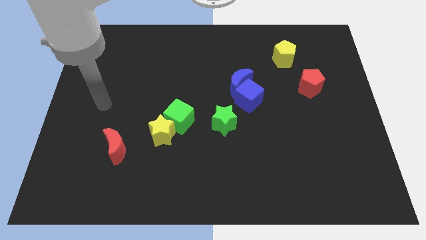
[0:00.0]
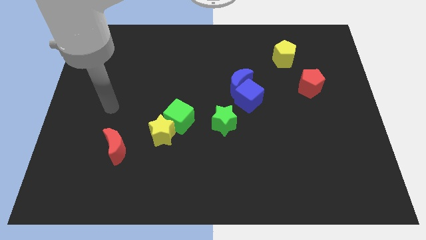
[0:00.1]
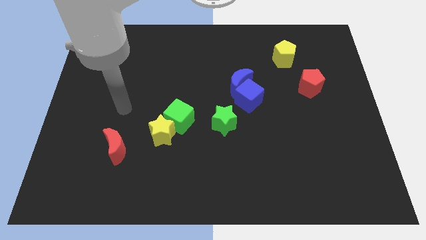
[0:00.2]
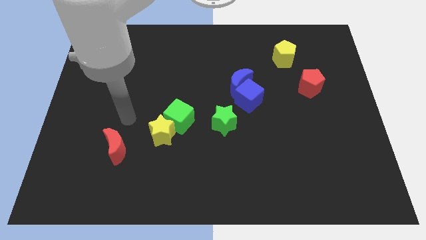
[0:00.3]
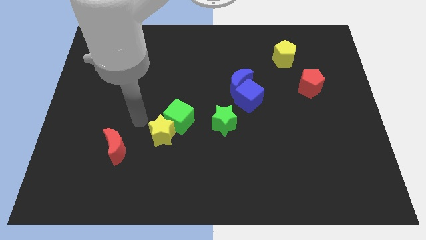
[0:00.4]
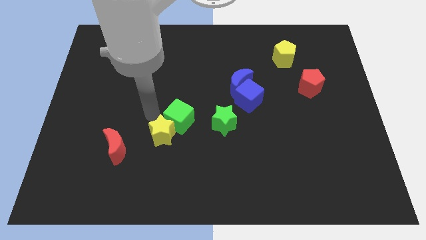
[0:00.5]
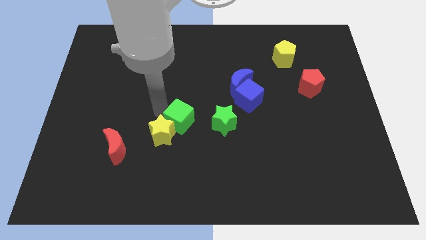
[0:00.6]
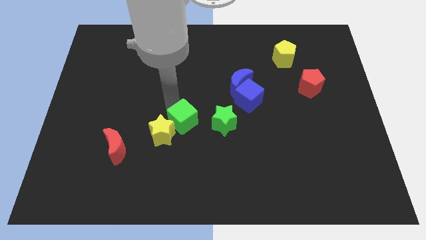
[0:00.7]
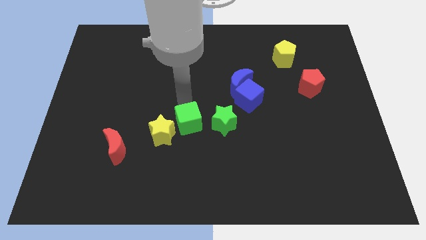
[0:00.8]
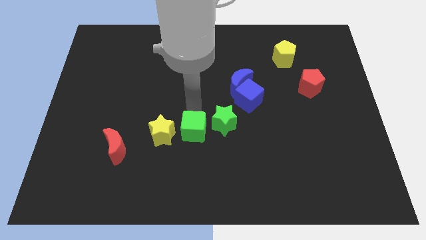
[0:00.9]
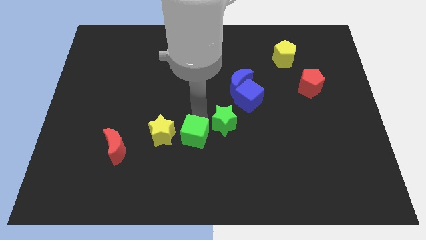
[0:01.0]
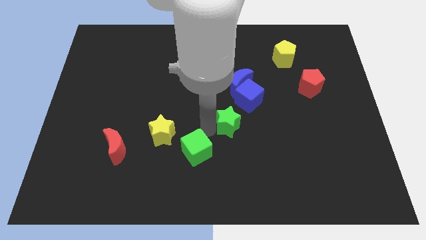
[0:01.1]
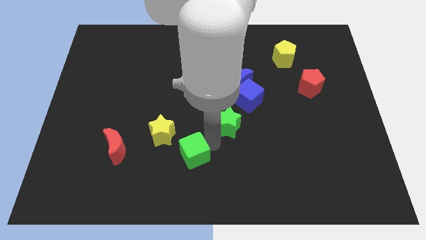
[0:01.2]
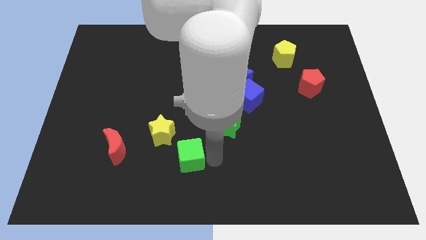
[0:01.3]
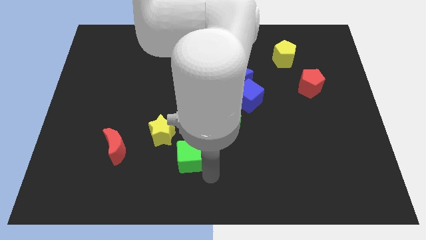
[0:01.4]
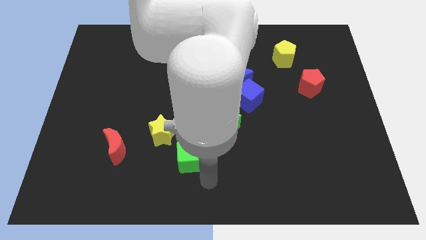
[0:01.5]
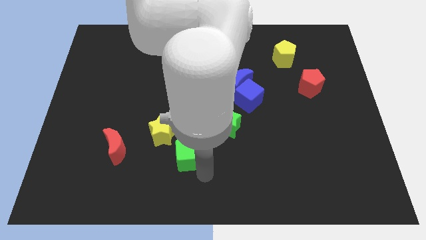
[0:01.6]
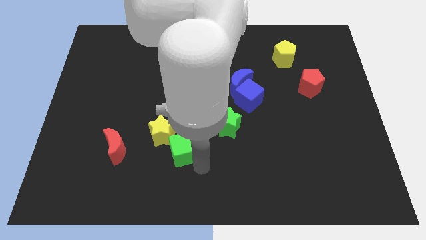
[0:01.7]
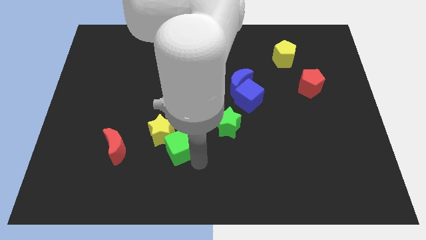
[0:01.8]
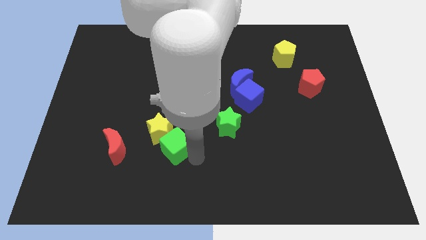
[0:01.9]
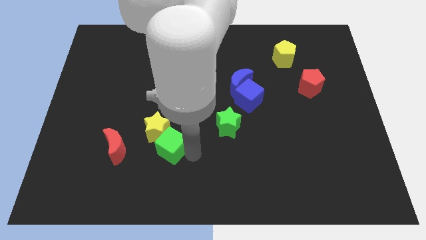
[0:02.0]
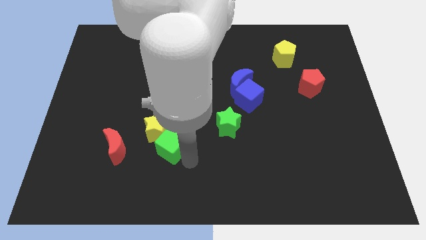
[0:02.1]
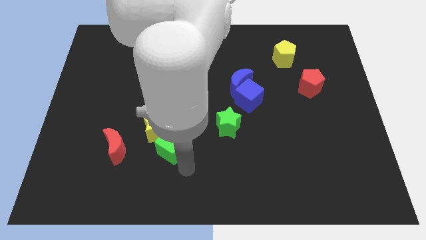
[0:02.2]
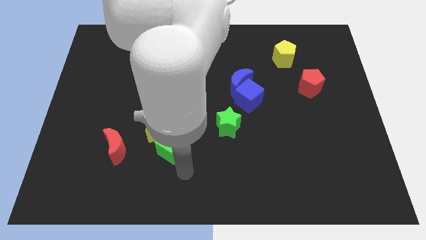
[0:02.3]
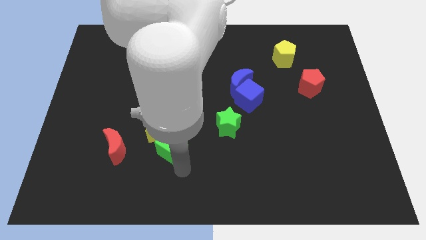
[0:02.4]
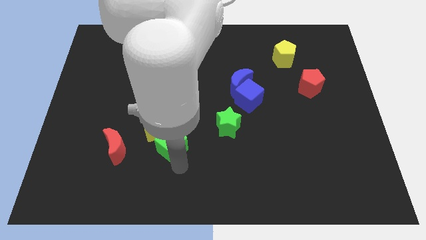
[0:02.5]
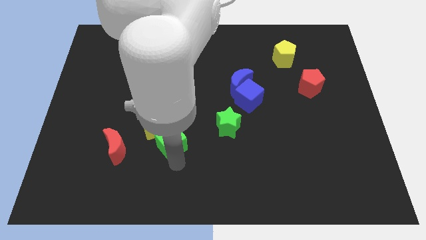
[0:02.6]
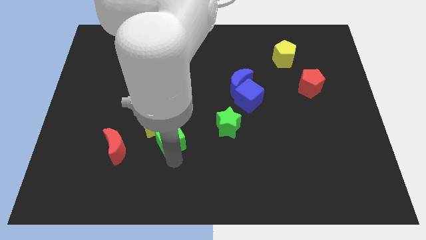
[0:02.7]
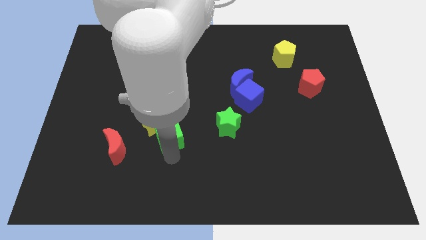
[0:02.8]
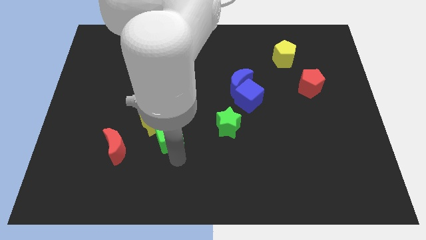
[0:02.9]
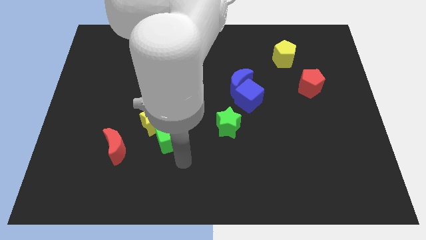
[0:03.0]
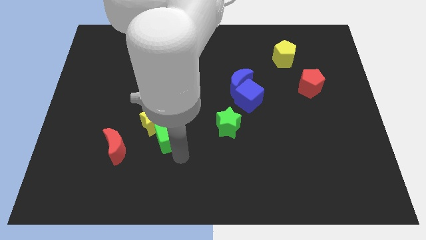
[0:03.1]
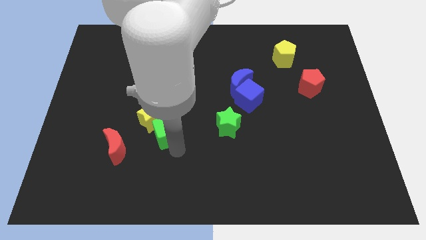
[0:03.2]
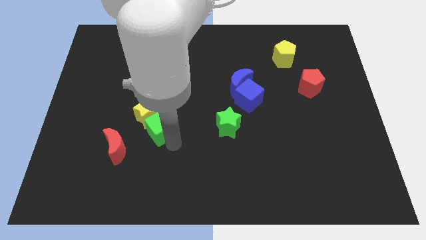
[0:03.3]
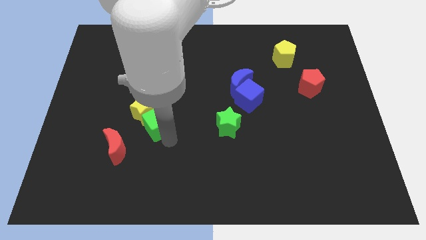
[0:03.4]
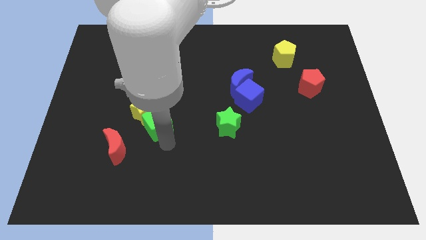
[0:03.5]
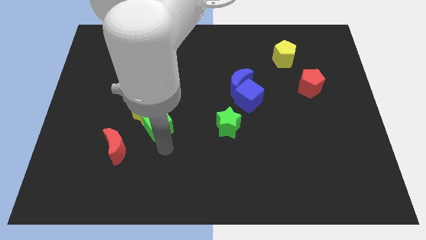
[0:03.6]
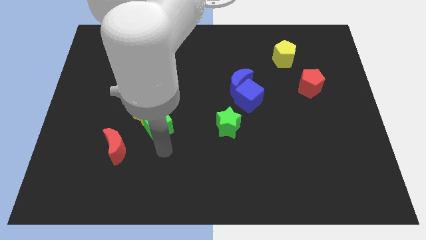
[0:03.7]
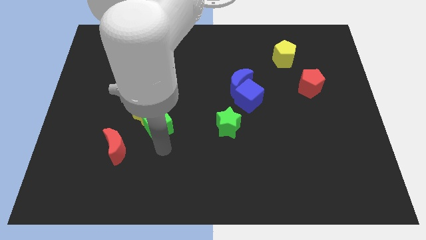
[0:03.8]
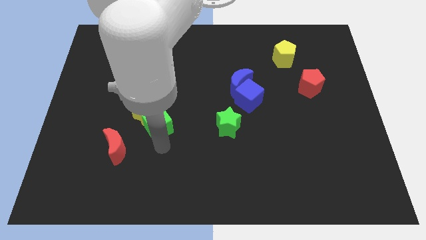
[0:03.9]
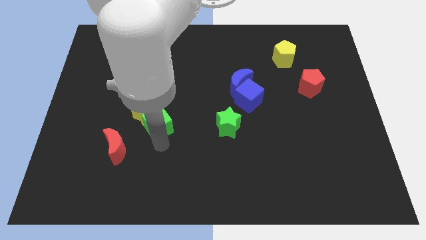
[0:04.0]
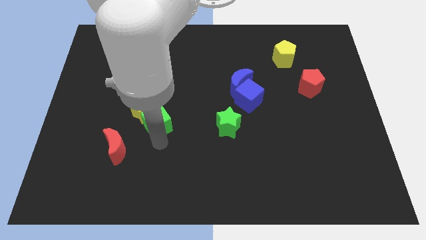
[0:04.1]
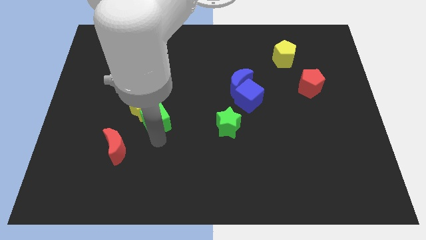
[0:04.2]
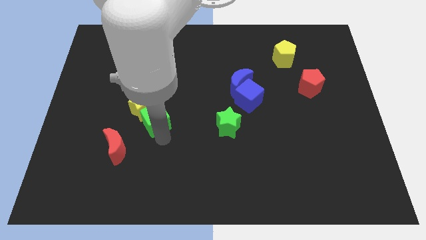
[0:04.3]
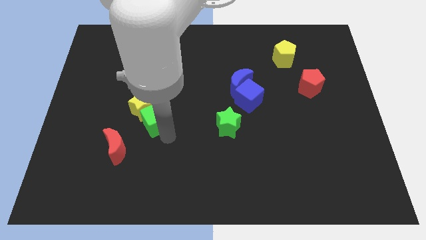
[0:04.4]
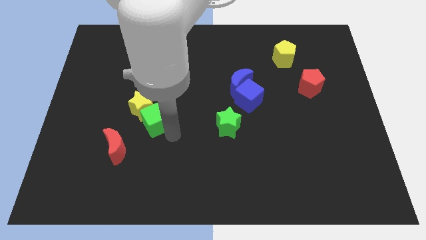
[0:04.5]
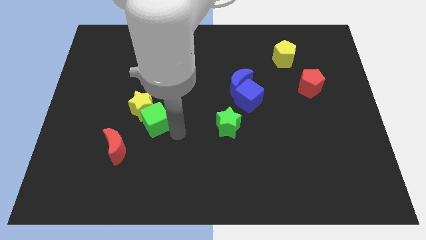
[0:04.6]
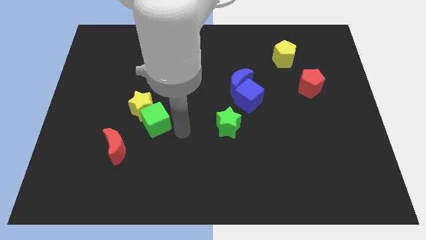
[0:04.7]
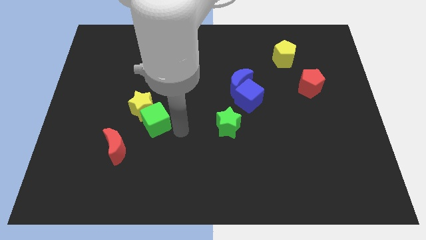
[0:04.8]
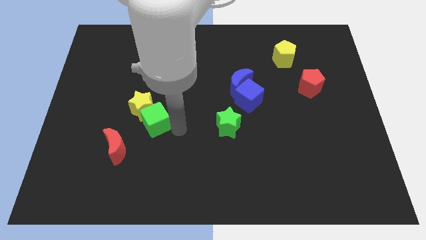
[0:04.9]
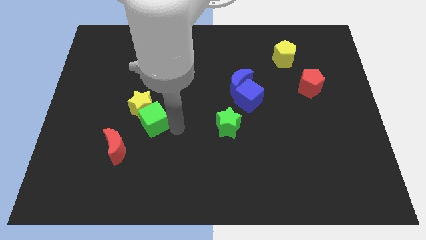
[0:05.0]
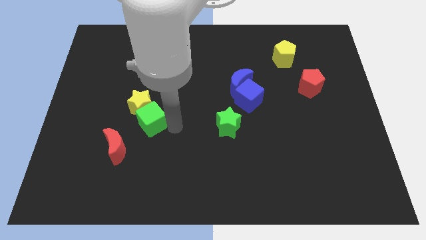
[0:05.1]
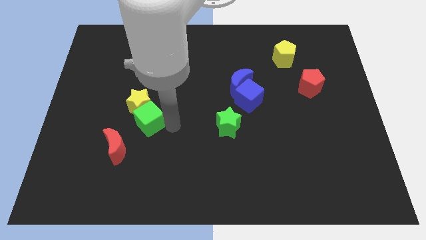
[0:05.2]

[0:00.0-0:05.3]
move the green cube a little to the left

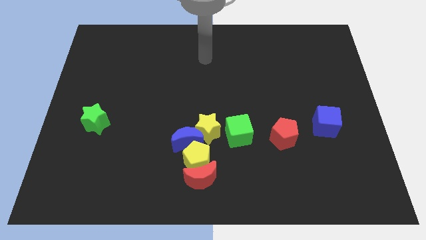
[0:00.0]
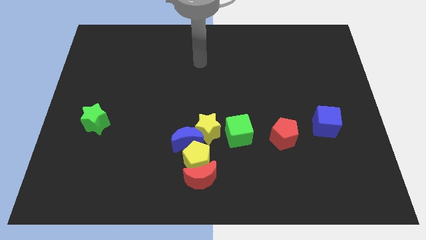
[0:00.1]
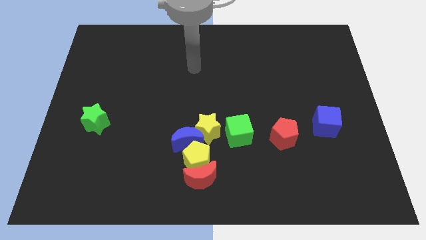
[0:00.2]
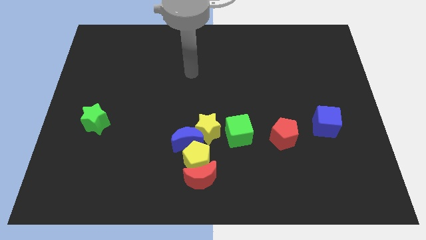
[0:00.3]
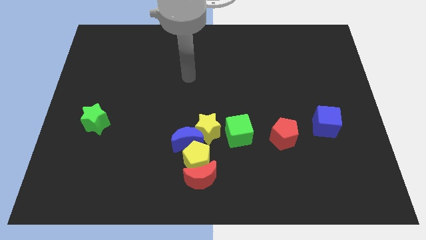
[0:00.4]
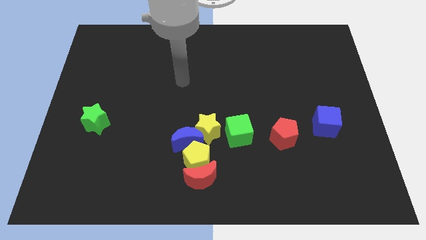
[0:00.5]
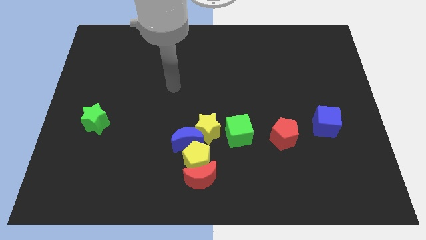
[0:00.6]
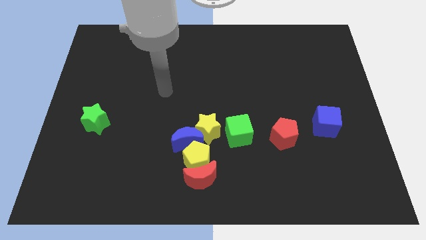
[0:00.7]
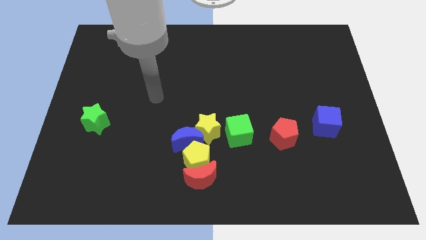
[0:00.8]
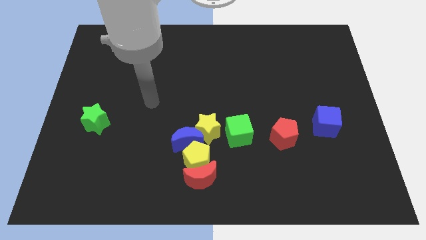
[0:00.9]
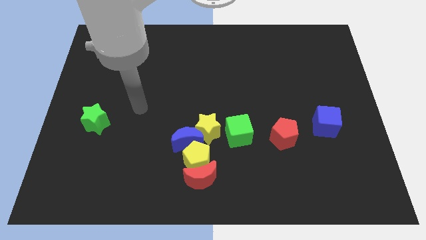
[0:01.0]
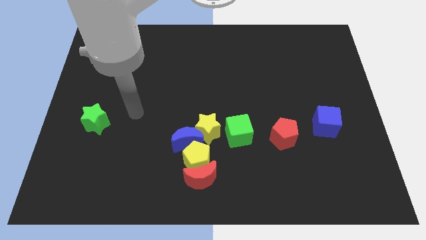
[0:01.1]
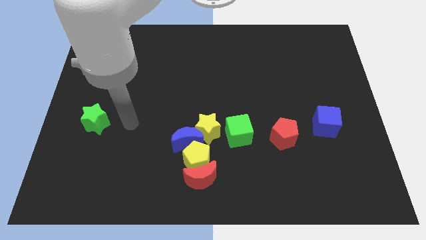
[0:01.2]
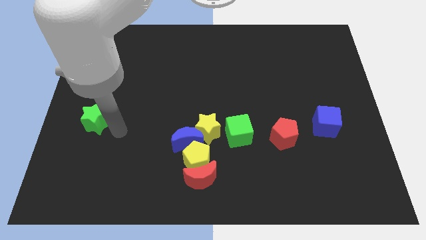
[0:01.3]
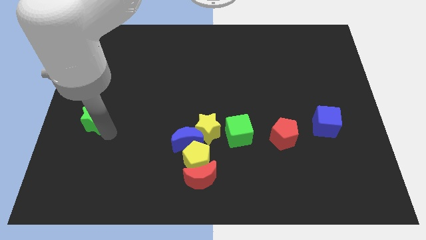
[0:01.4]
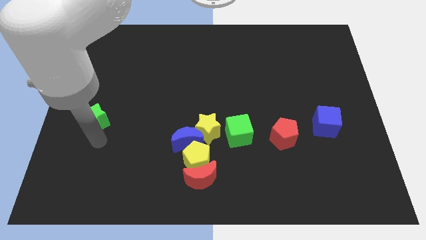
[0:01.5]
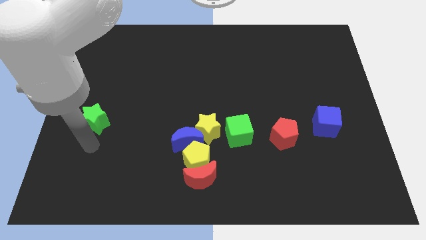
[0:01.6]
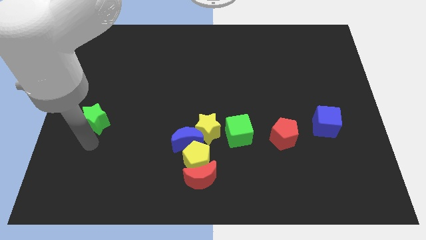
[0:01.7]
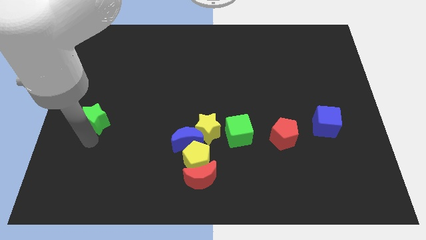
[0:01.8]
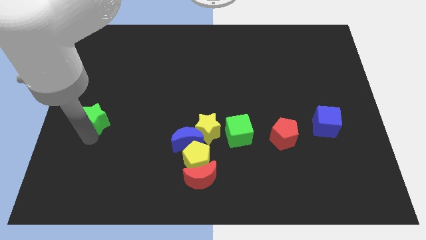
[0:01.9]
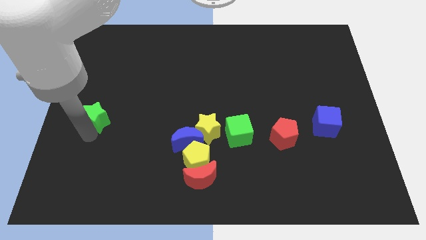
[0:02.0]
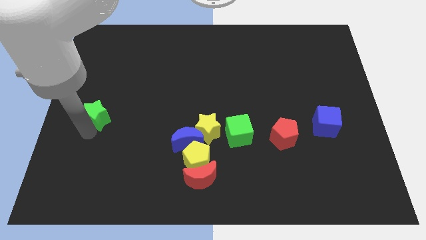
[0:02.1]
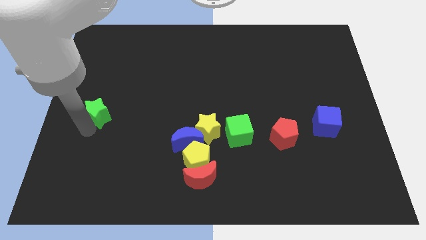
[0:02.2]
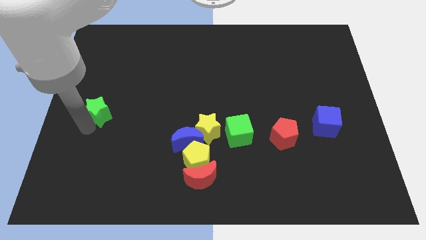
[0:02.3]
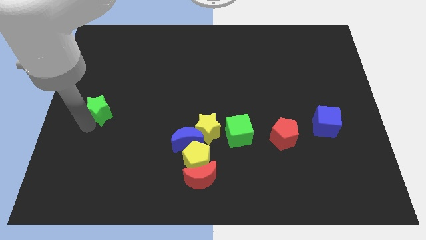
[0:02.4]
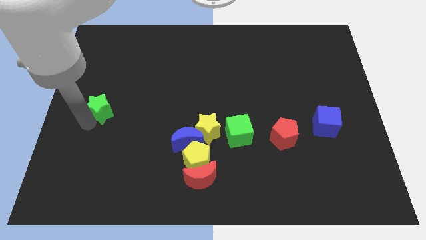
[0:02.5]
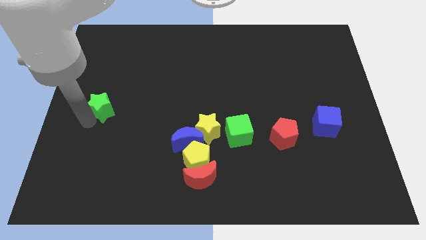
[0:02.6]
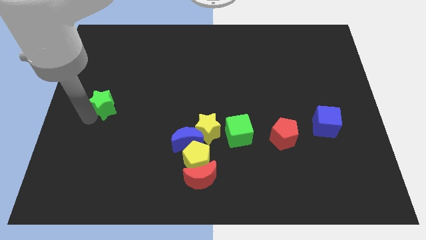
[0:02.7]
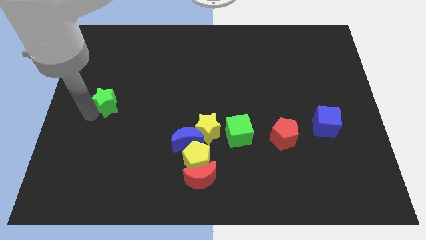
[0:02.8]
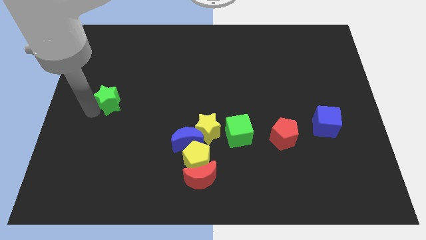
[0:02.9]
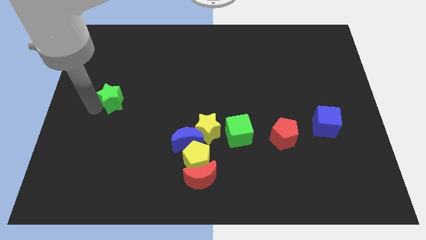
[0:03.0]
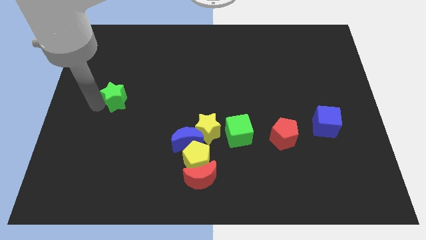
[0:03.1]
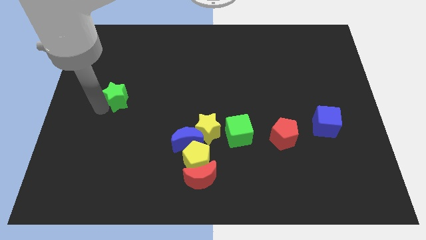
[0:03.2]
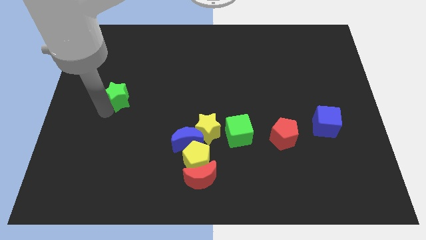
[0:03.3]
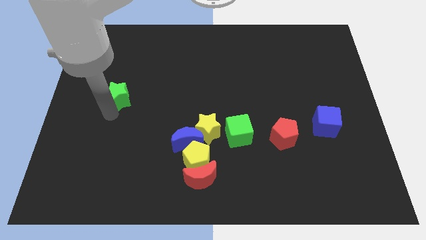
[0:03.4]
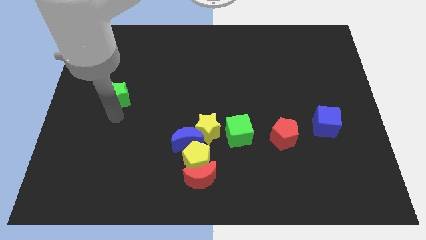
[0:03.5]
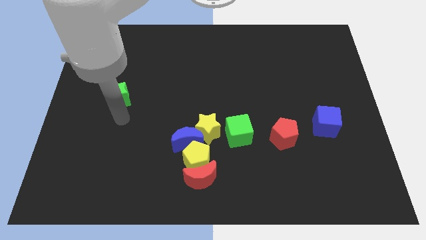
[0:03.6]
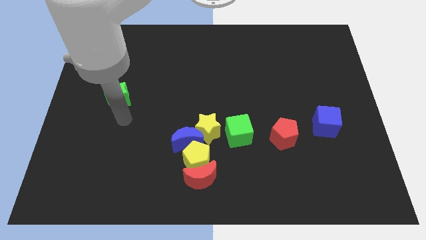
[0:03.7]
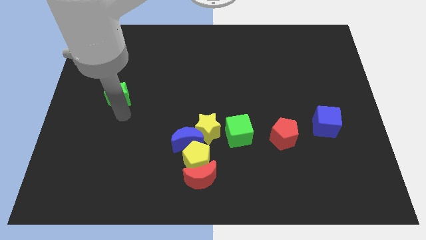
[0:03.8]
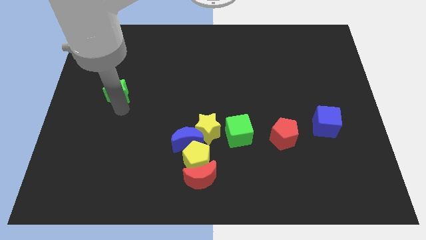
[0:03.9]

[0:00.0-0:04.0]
slightly slide the green star upwards
